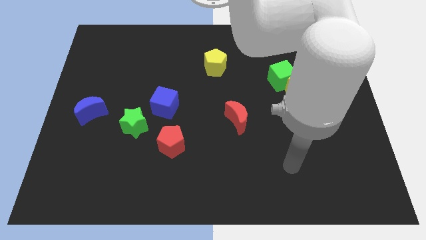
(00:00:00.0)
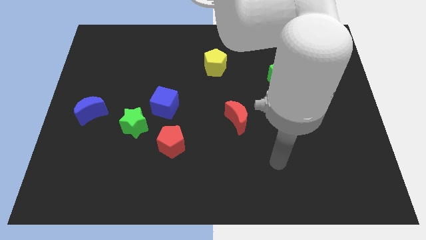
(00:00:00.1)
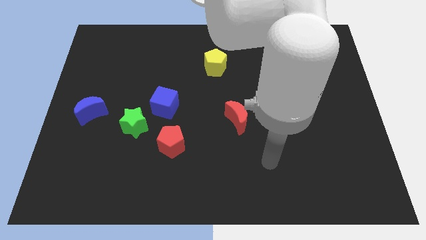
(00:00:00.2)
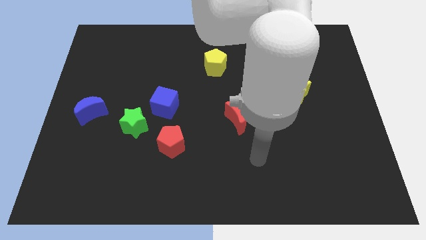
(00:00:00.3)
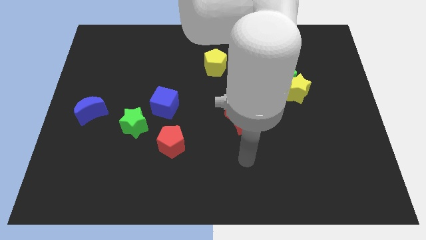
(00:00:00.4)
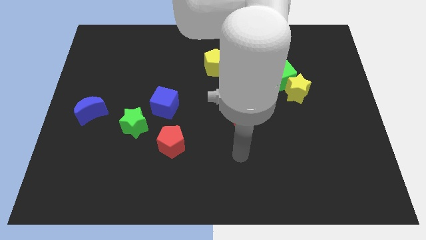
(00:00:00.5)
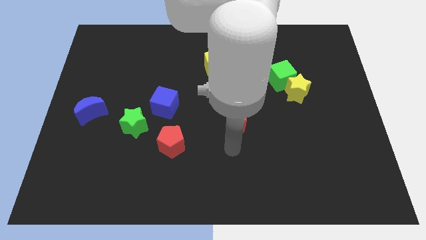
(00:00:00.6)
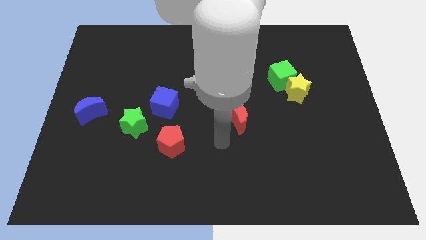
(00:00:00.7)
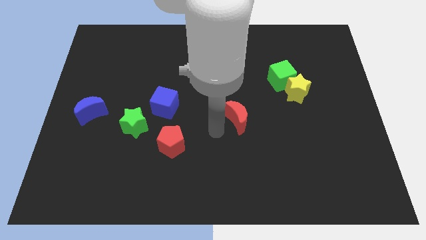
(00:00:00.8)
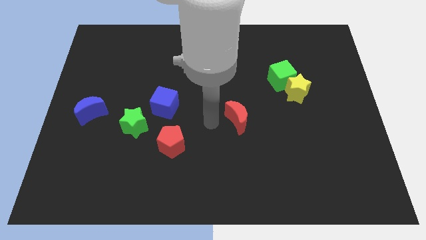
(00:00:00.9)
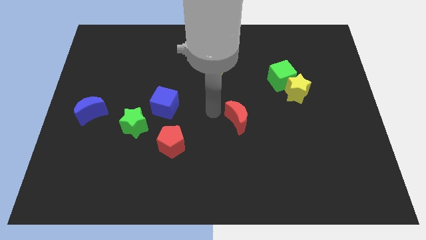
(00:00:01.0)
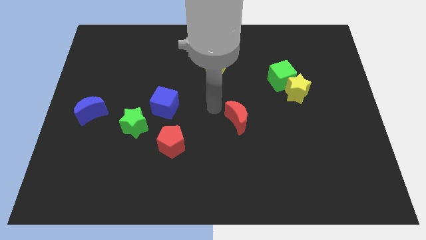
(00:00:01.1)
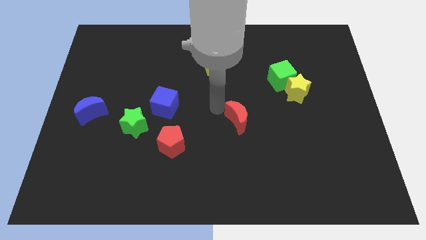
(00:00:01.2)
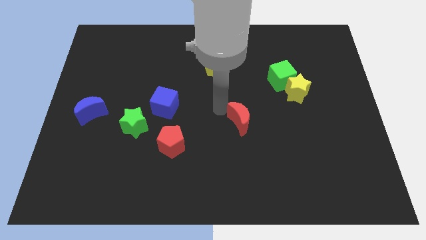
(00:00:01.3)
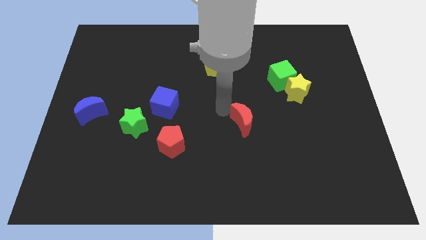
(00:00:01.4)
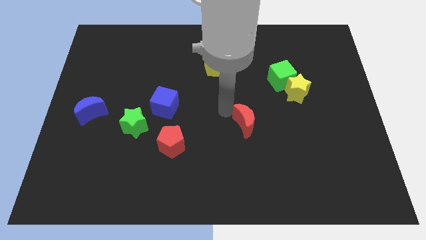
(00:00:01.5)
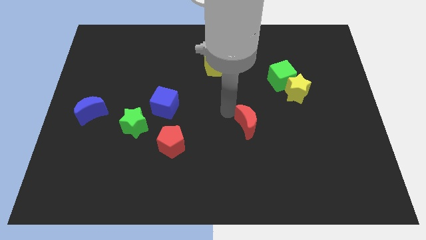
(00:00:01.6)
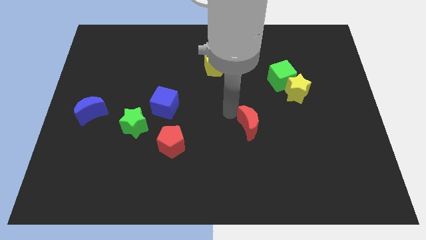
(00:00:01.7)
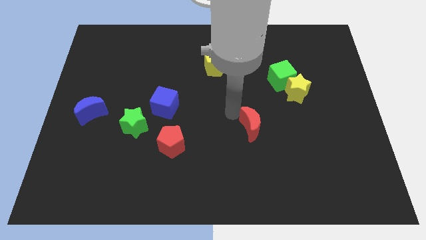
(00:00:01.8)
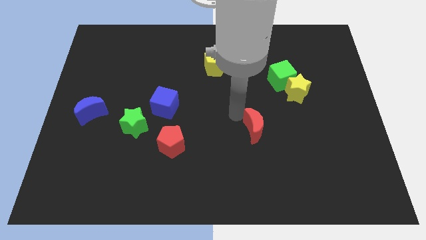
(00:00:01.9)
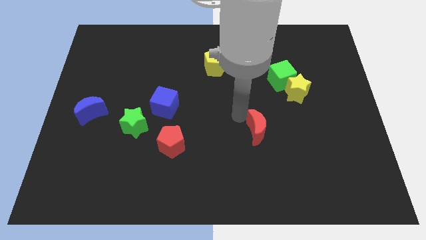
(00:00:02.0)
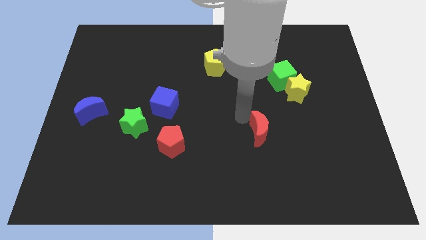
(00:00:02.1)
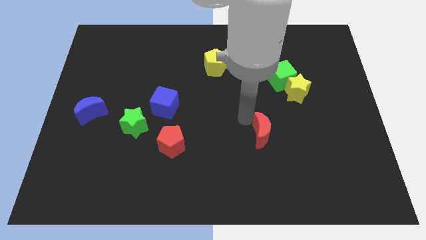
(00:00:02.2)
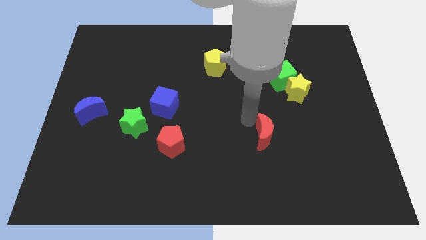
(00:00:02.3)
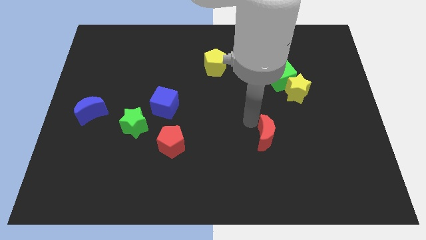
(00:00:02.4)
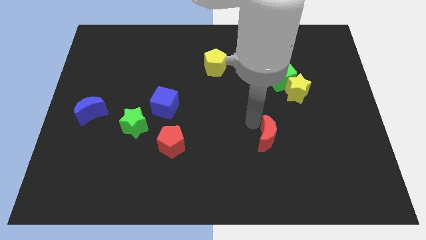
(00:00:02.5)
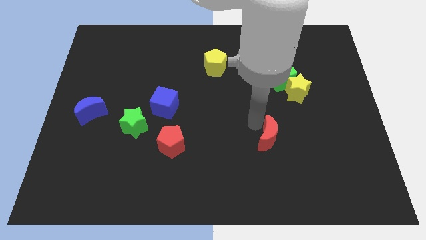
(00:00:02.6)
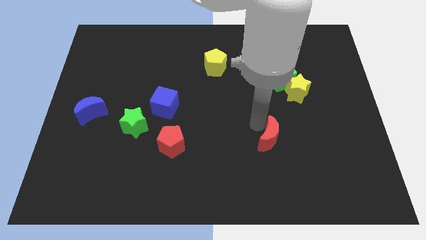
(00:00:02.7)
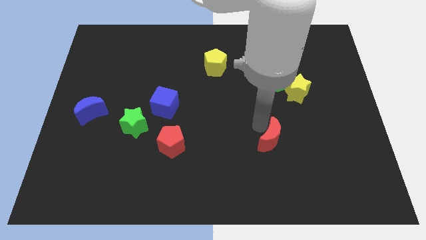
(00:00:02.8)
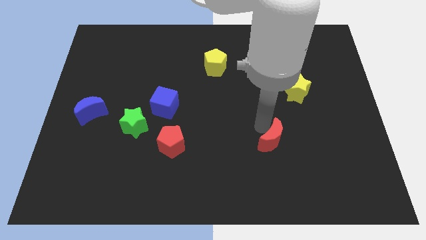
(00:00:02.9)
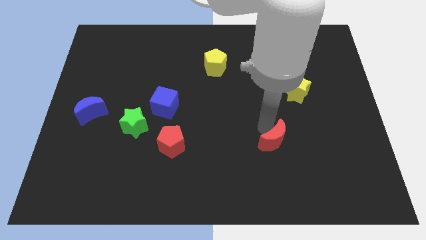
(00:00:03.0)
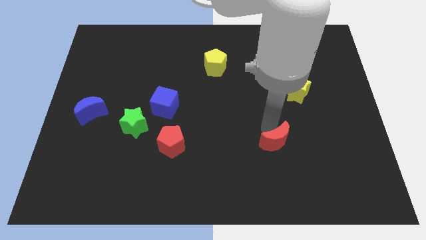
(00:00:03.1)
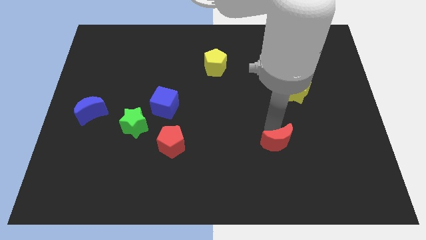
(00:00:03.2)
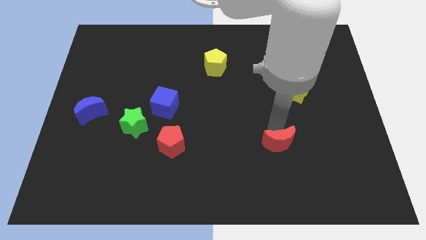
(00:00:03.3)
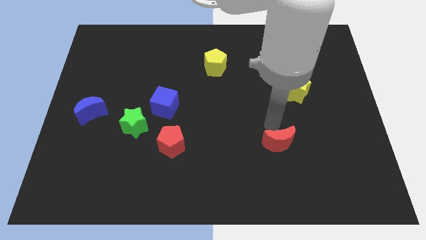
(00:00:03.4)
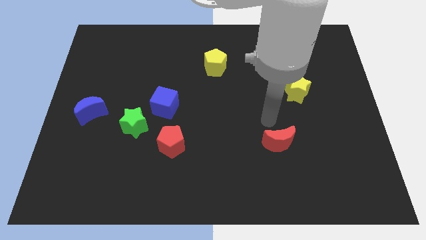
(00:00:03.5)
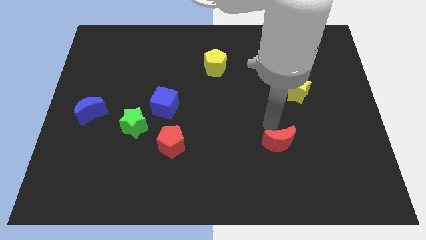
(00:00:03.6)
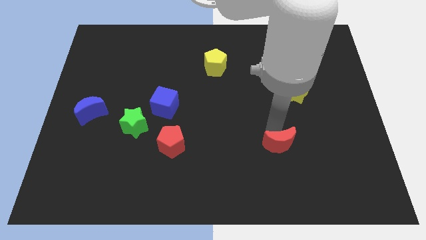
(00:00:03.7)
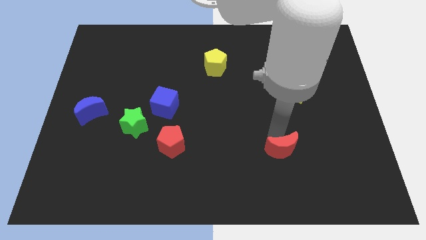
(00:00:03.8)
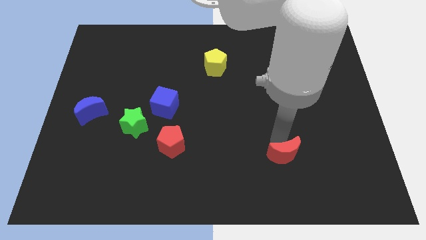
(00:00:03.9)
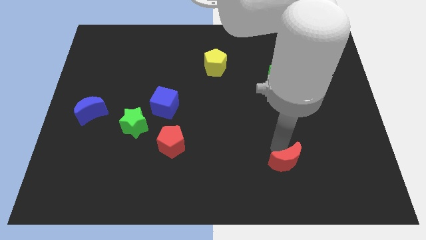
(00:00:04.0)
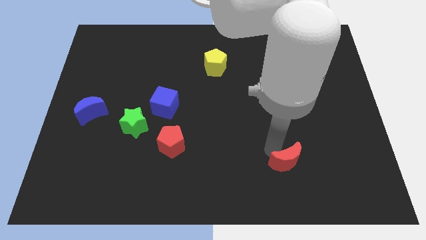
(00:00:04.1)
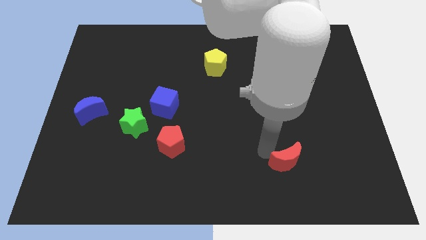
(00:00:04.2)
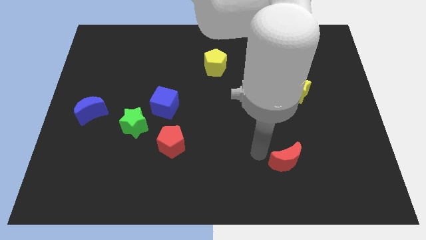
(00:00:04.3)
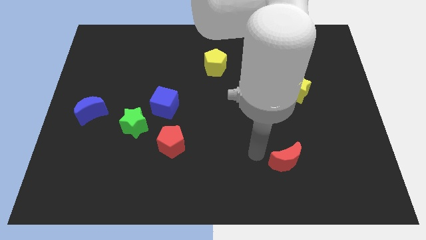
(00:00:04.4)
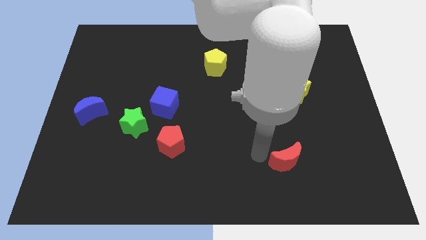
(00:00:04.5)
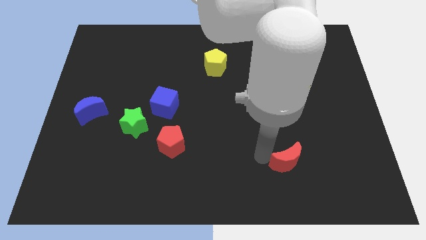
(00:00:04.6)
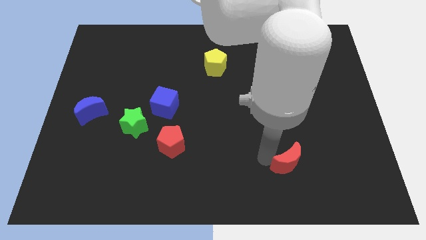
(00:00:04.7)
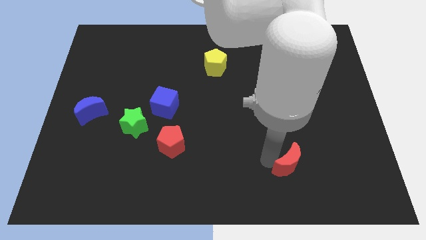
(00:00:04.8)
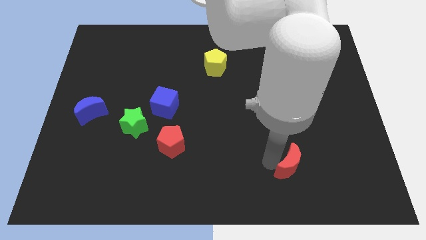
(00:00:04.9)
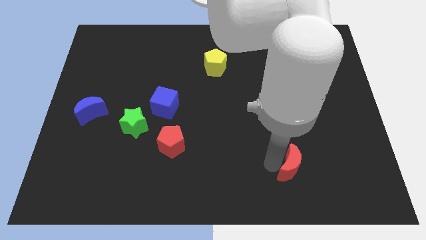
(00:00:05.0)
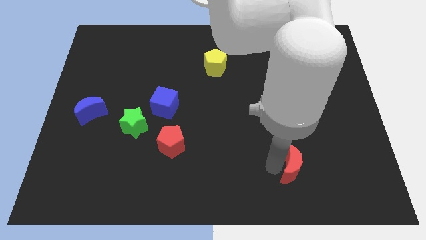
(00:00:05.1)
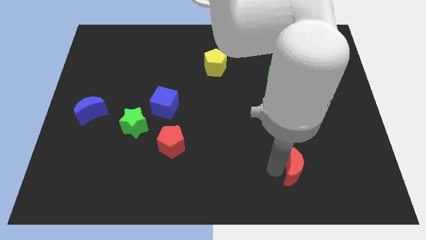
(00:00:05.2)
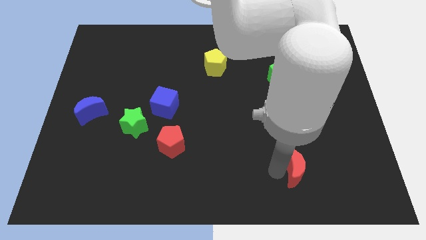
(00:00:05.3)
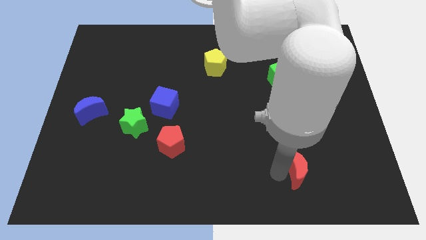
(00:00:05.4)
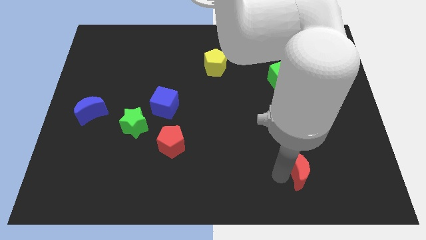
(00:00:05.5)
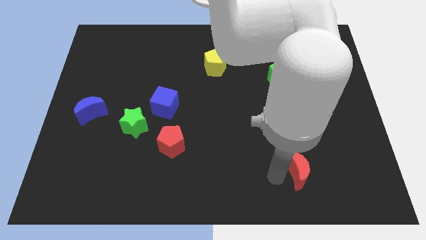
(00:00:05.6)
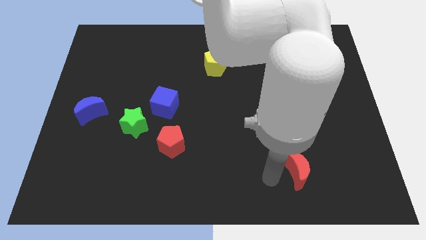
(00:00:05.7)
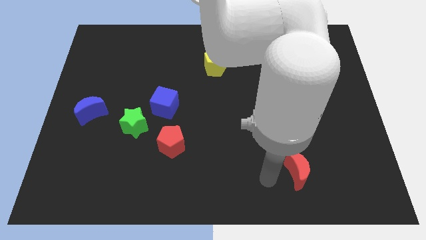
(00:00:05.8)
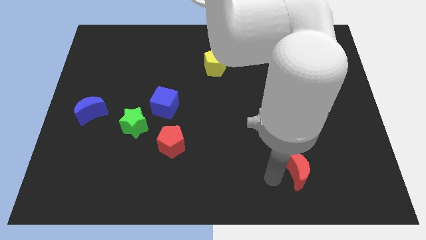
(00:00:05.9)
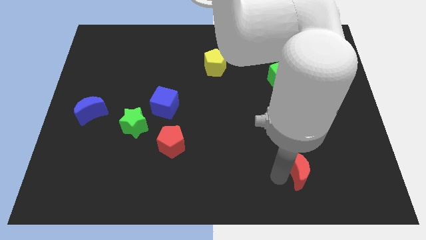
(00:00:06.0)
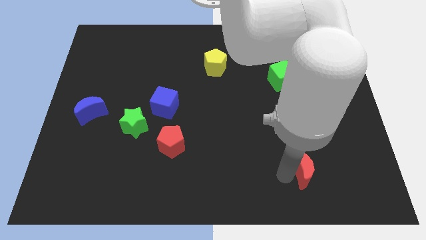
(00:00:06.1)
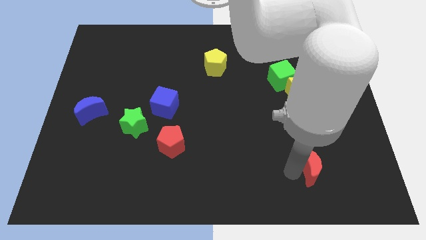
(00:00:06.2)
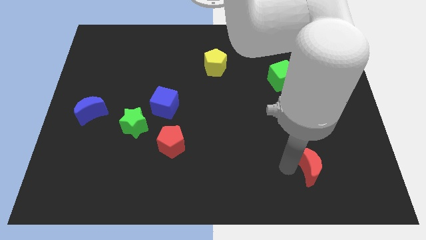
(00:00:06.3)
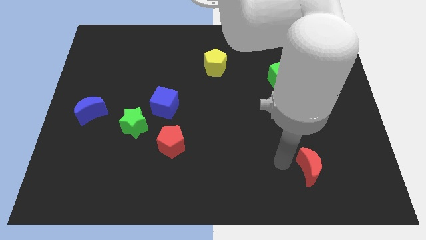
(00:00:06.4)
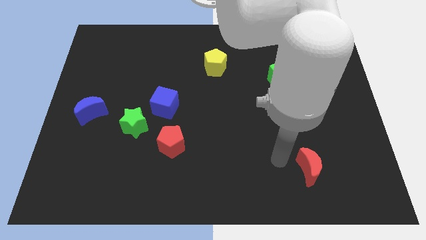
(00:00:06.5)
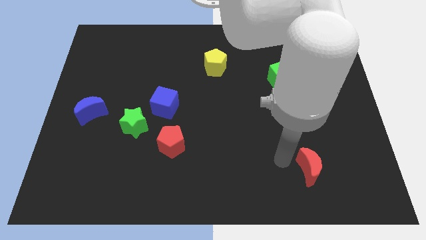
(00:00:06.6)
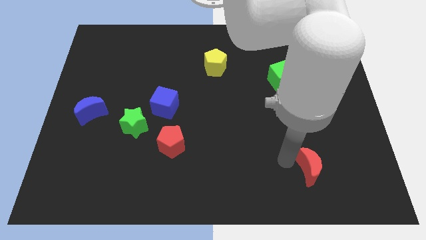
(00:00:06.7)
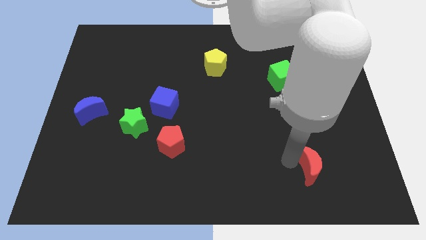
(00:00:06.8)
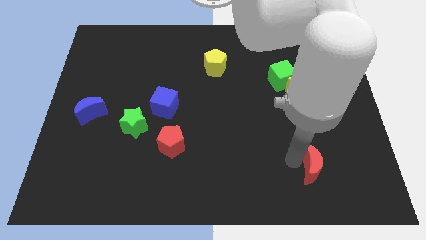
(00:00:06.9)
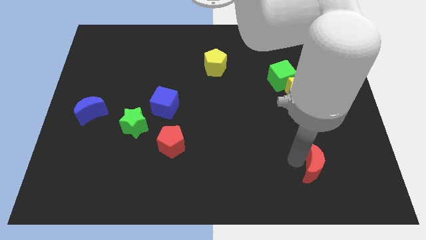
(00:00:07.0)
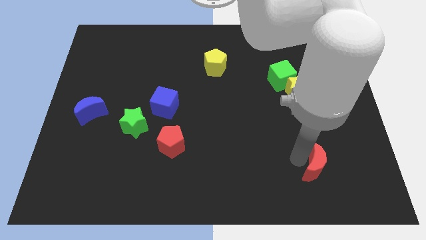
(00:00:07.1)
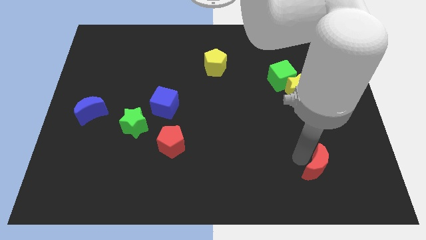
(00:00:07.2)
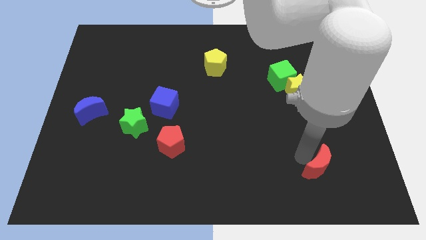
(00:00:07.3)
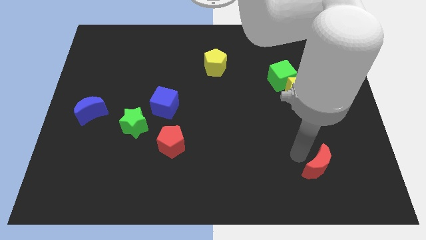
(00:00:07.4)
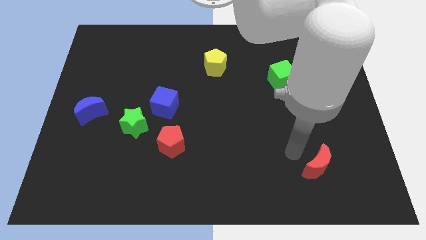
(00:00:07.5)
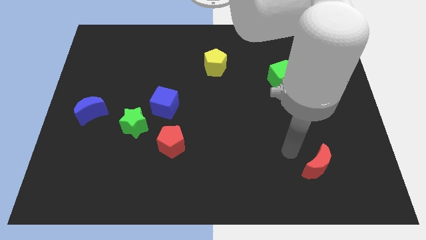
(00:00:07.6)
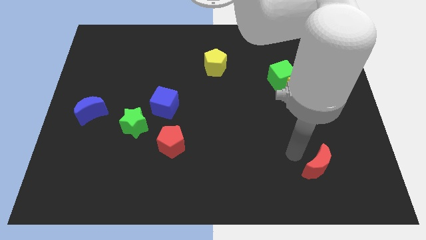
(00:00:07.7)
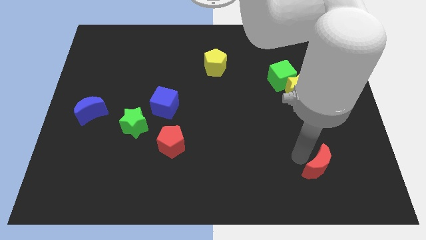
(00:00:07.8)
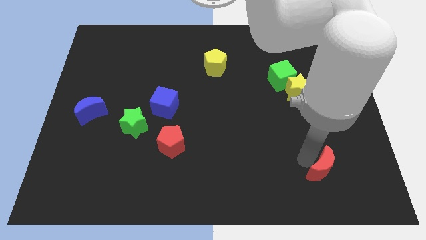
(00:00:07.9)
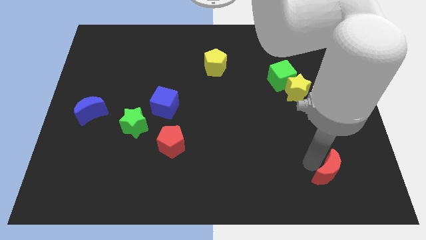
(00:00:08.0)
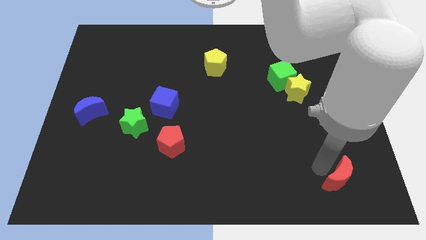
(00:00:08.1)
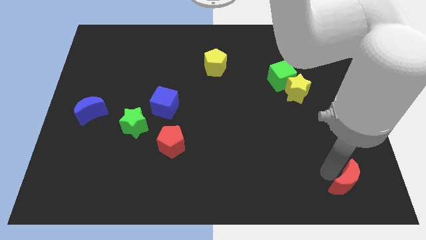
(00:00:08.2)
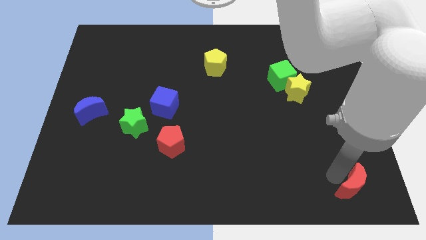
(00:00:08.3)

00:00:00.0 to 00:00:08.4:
slide the red moon to the bottom right
